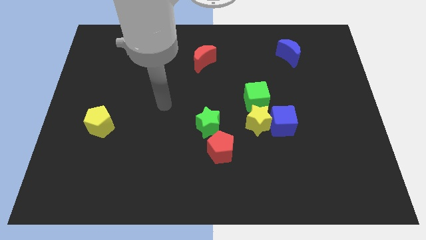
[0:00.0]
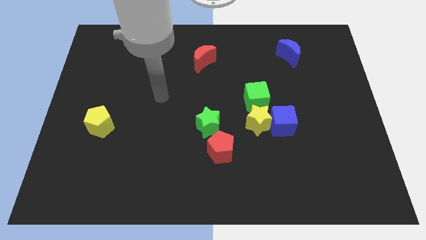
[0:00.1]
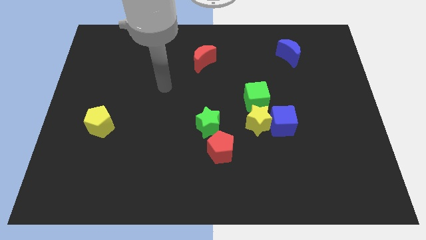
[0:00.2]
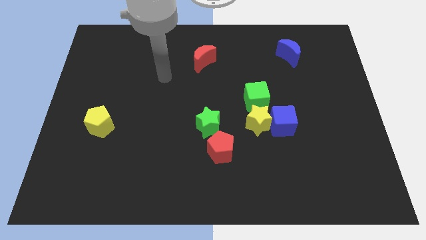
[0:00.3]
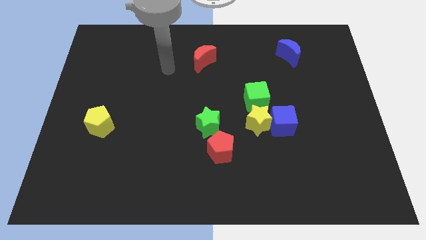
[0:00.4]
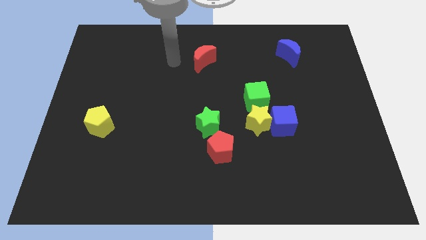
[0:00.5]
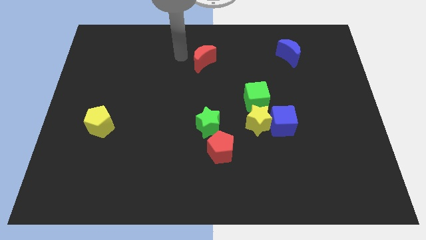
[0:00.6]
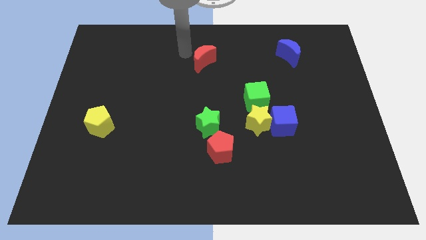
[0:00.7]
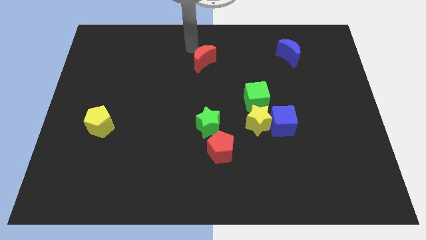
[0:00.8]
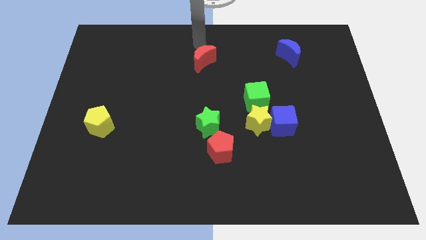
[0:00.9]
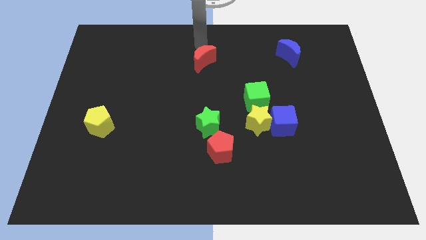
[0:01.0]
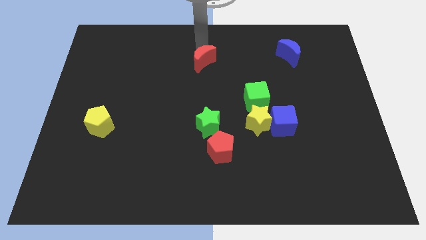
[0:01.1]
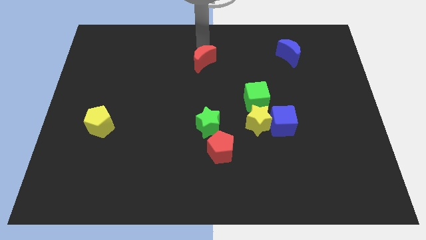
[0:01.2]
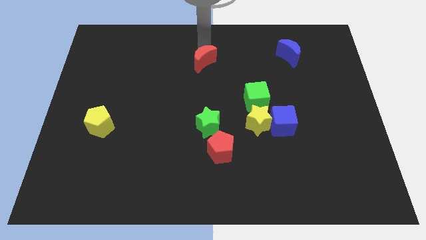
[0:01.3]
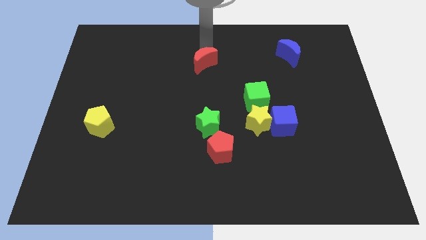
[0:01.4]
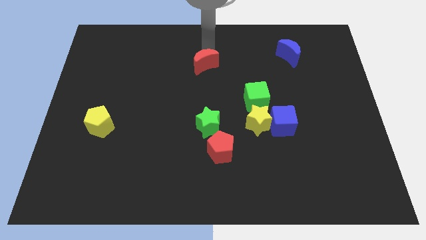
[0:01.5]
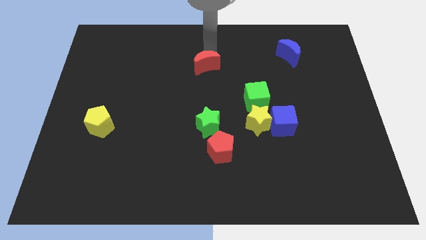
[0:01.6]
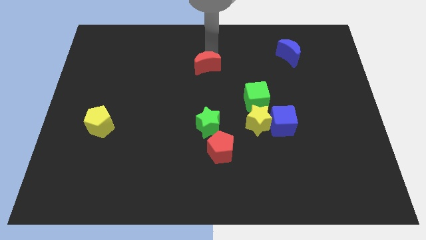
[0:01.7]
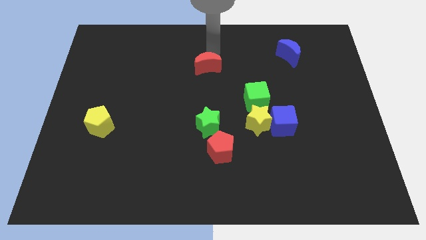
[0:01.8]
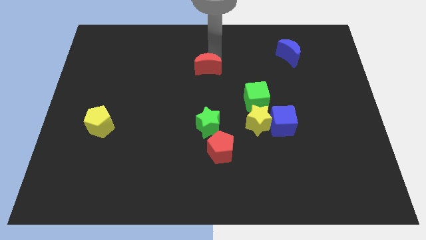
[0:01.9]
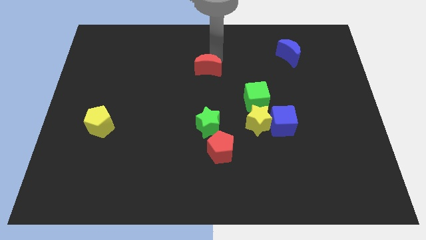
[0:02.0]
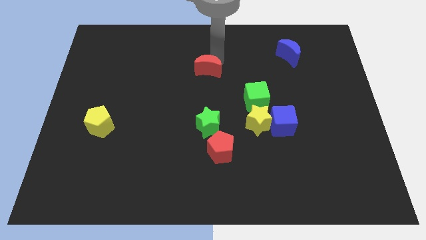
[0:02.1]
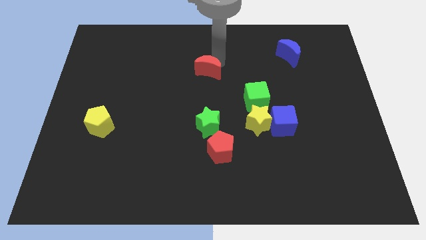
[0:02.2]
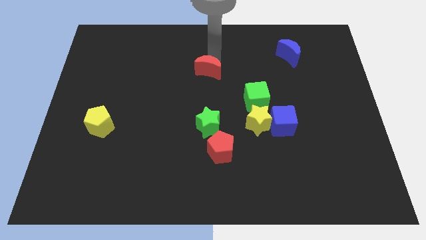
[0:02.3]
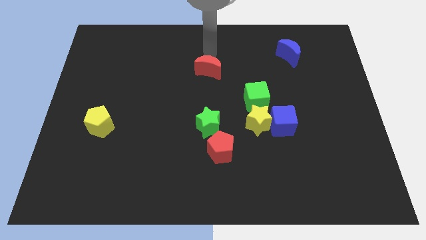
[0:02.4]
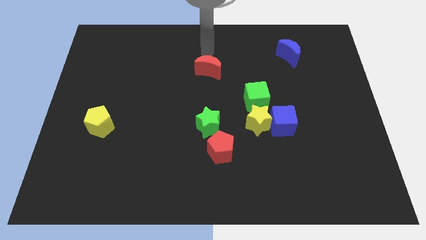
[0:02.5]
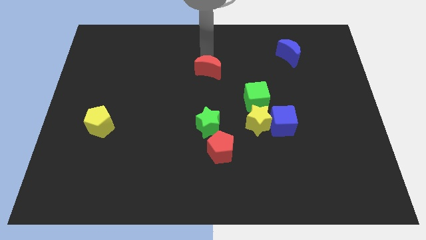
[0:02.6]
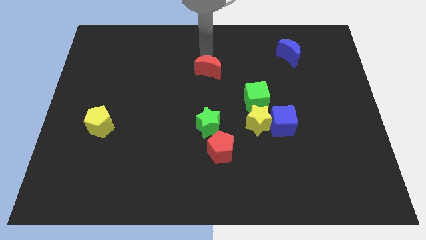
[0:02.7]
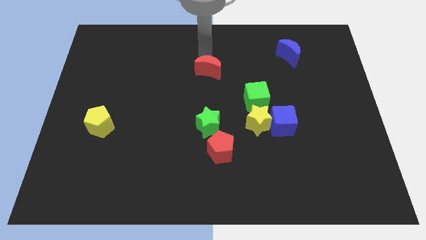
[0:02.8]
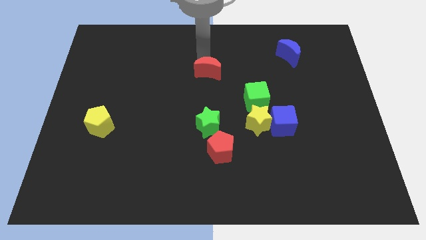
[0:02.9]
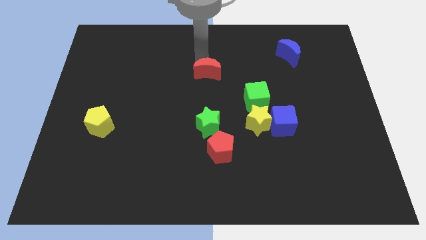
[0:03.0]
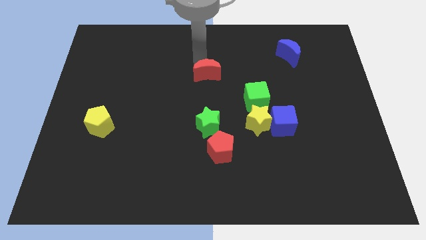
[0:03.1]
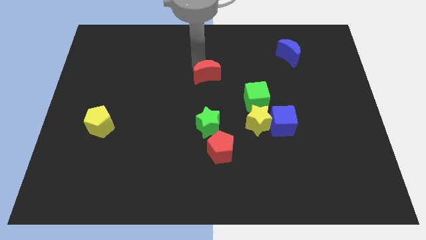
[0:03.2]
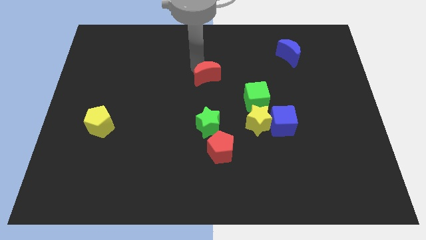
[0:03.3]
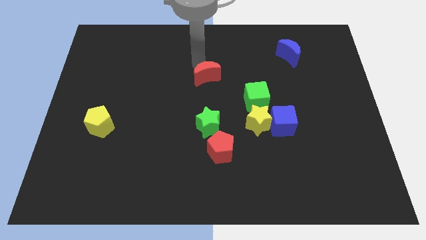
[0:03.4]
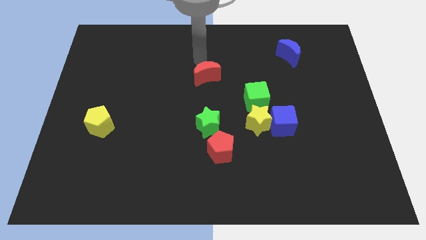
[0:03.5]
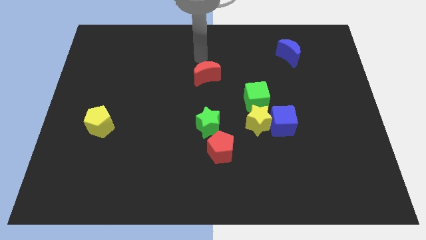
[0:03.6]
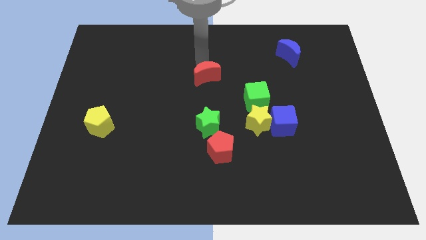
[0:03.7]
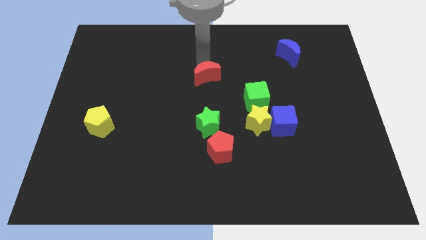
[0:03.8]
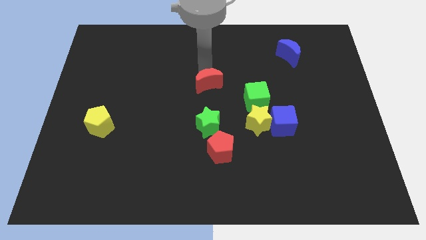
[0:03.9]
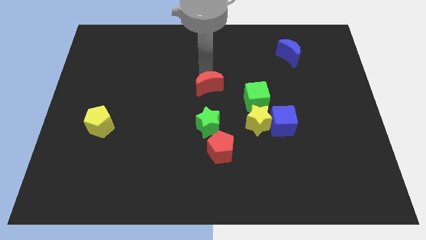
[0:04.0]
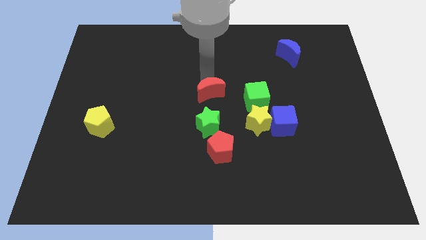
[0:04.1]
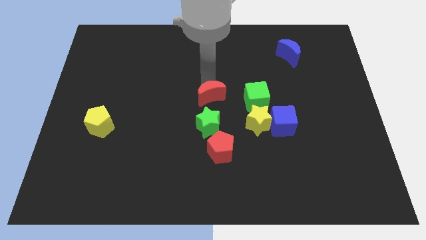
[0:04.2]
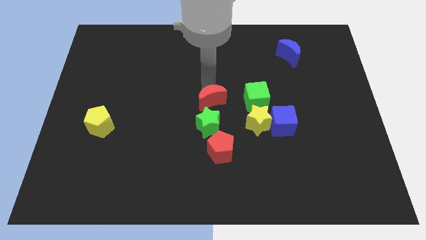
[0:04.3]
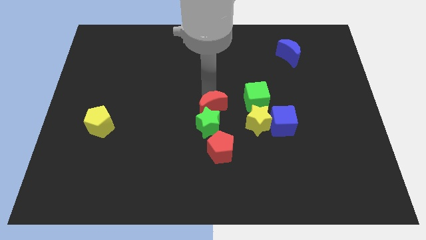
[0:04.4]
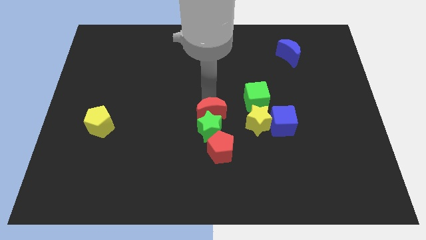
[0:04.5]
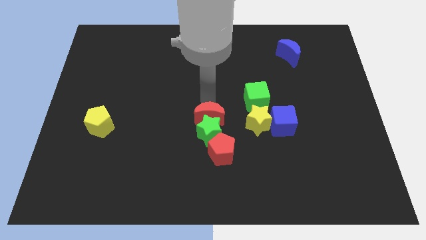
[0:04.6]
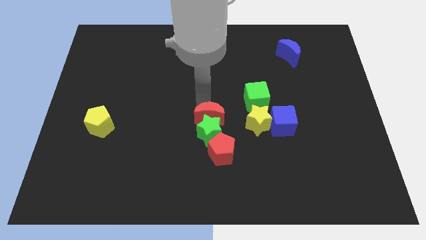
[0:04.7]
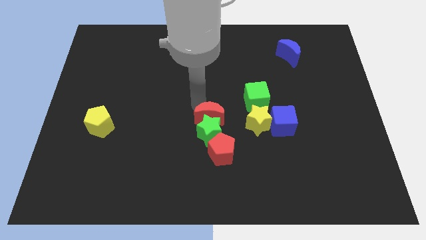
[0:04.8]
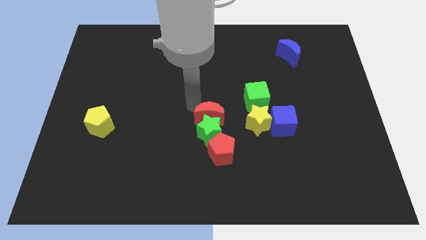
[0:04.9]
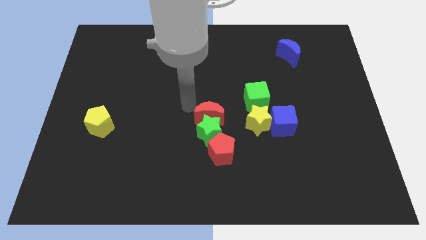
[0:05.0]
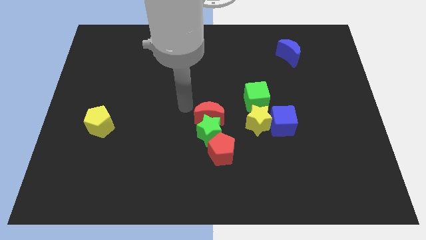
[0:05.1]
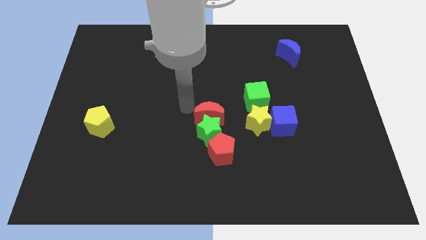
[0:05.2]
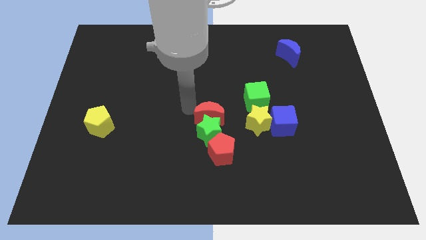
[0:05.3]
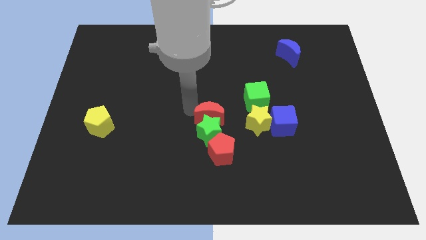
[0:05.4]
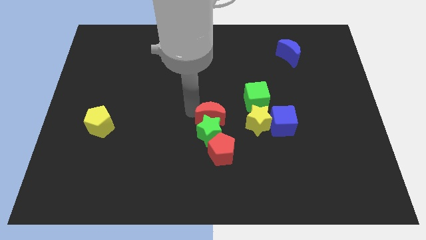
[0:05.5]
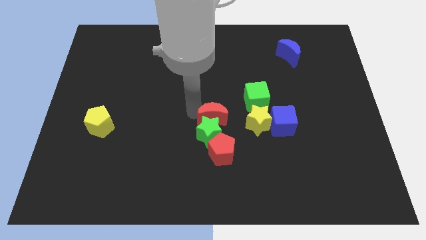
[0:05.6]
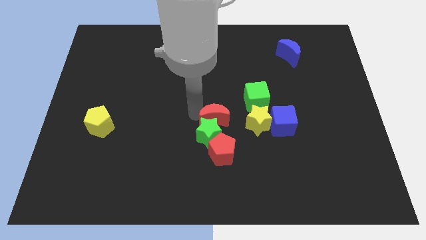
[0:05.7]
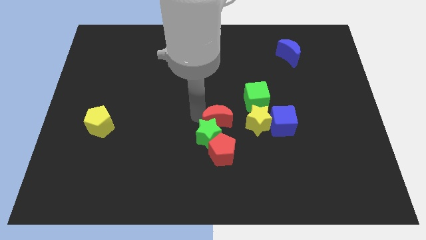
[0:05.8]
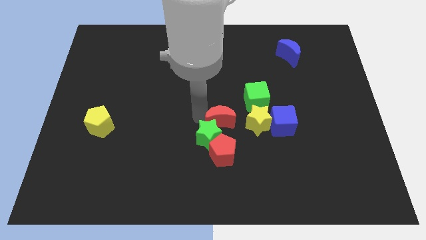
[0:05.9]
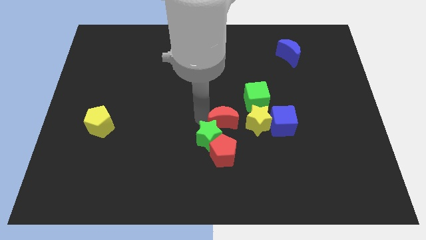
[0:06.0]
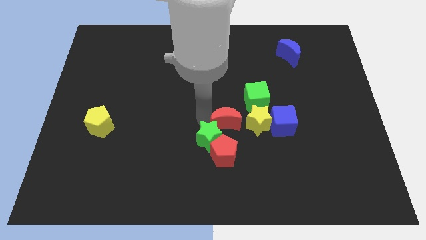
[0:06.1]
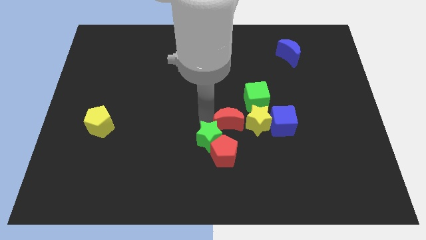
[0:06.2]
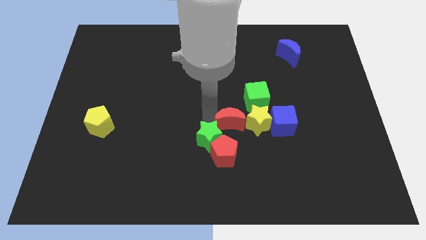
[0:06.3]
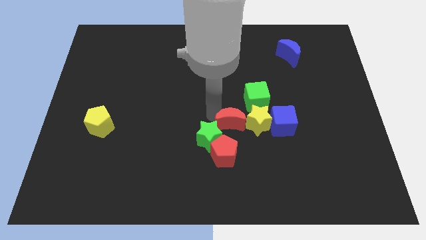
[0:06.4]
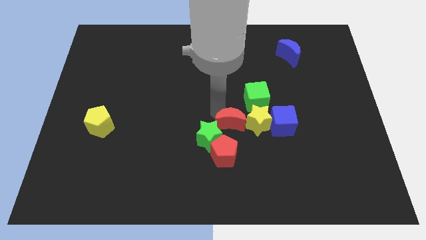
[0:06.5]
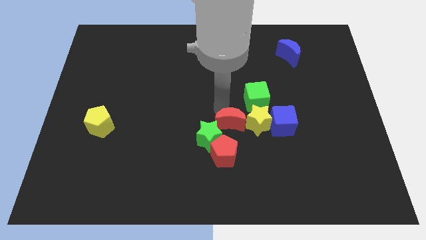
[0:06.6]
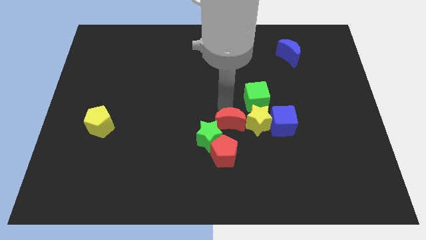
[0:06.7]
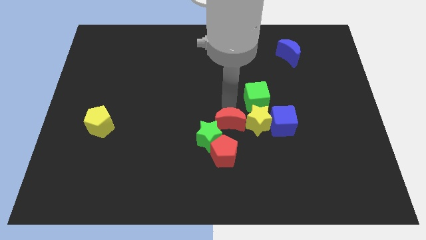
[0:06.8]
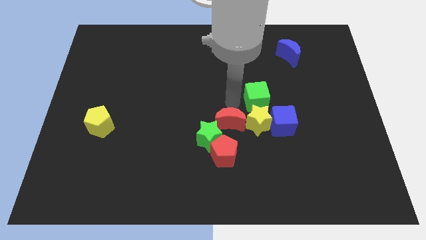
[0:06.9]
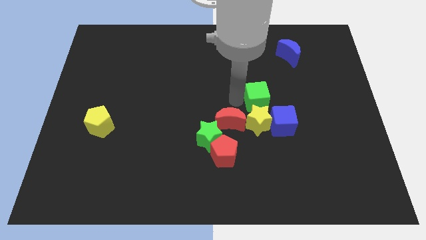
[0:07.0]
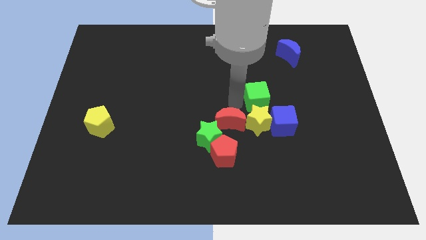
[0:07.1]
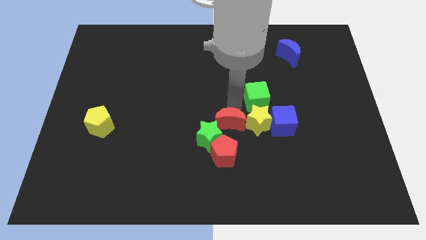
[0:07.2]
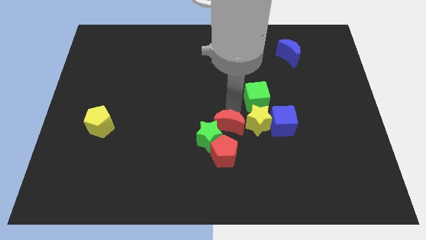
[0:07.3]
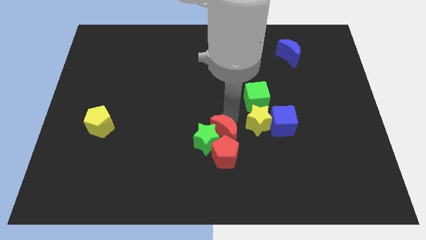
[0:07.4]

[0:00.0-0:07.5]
put the red moon to the red pentagon
